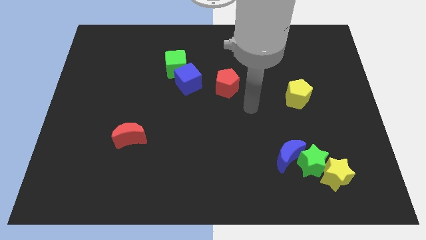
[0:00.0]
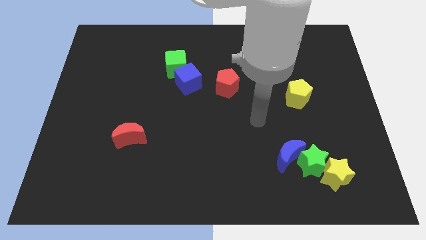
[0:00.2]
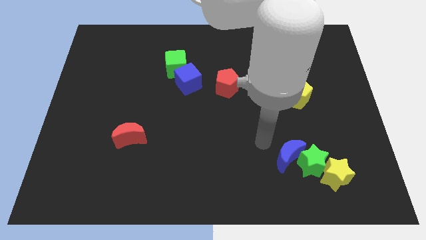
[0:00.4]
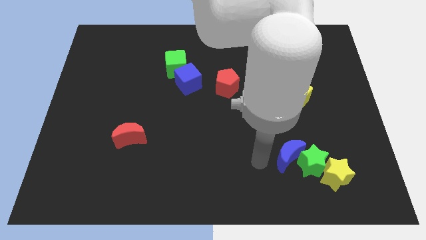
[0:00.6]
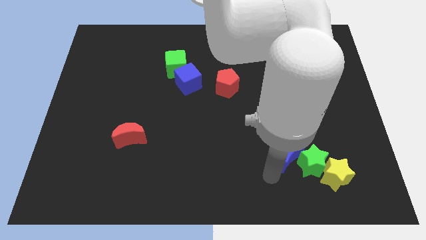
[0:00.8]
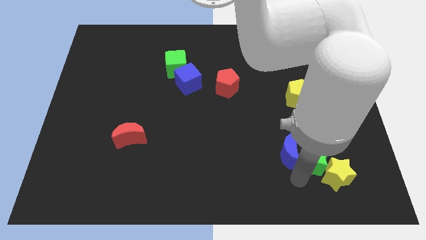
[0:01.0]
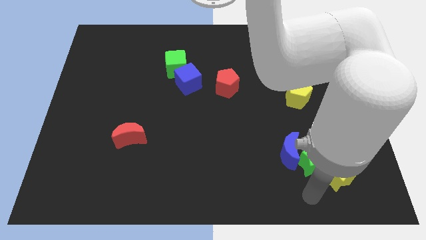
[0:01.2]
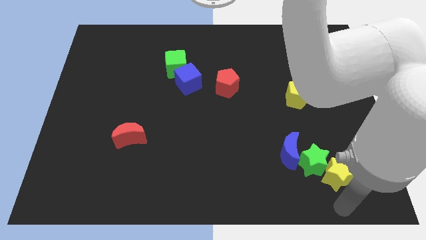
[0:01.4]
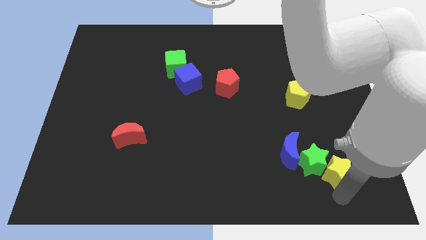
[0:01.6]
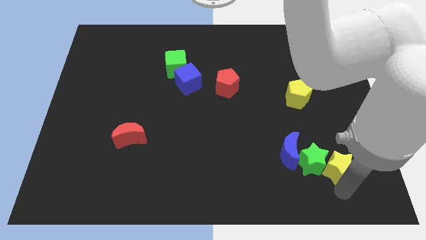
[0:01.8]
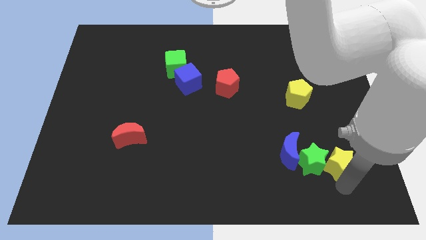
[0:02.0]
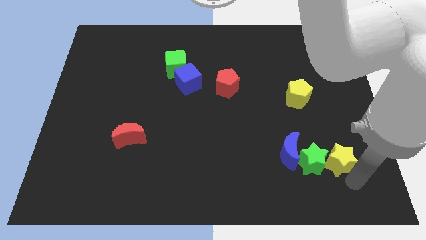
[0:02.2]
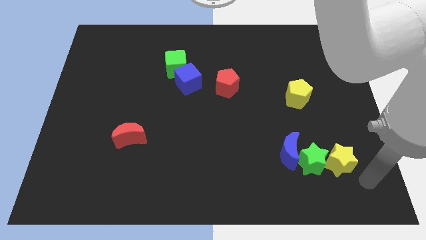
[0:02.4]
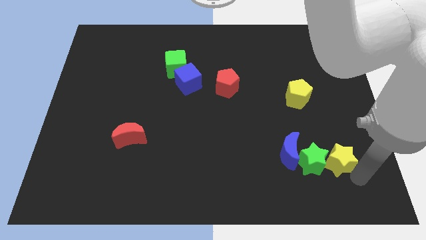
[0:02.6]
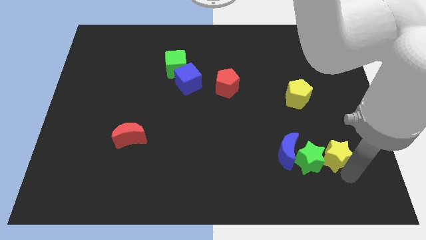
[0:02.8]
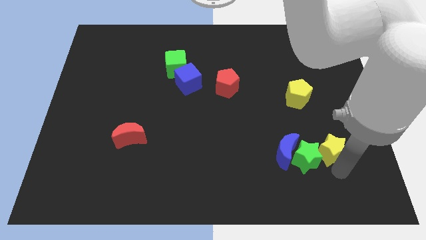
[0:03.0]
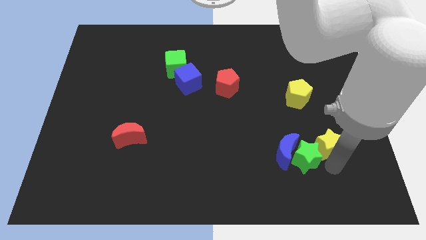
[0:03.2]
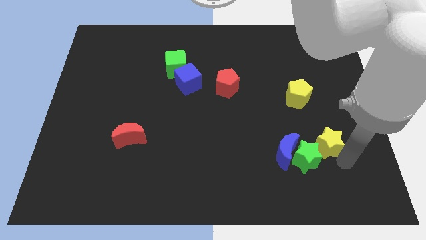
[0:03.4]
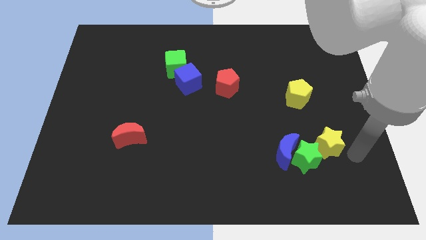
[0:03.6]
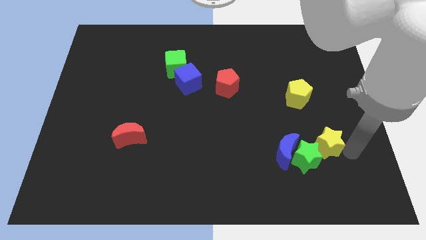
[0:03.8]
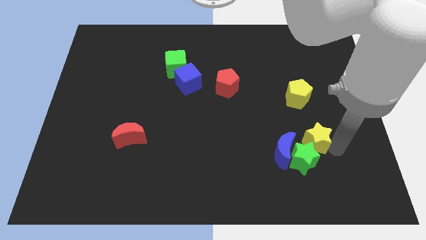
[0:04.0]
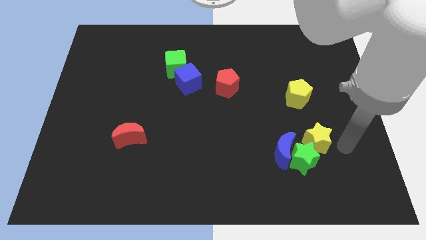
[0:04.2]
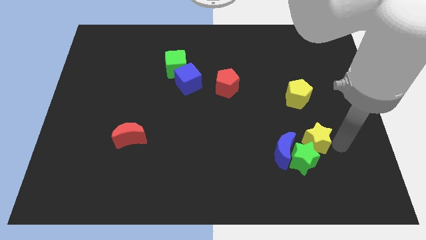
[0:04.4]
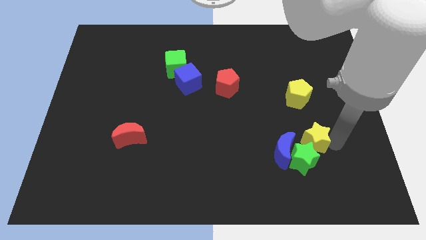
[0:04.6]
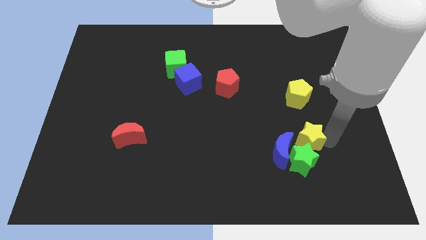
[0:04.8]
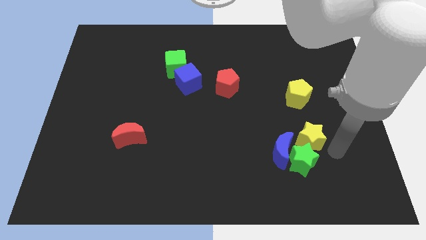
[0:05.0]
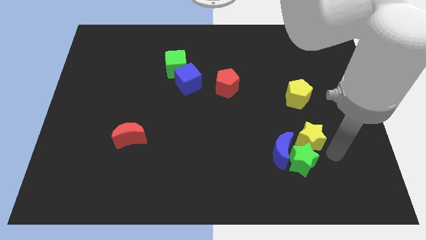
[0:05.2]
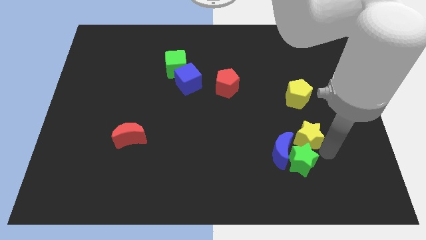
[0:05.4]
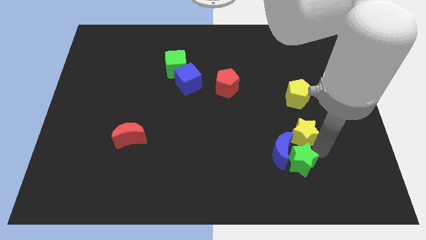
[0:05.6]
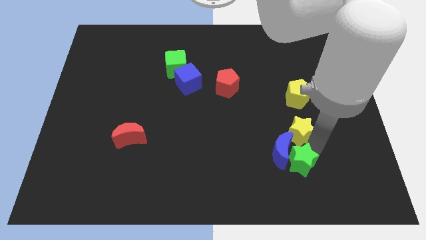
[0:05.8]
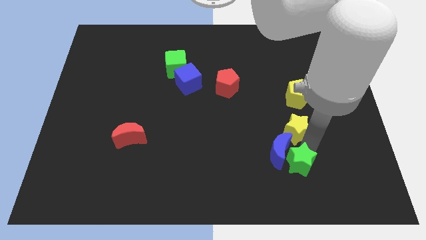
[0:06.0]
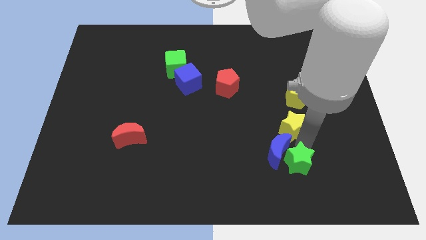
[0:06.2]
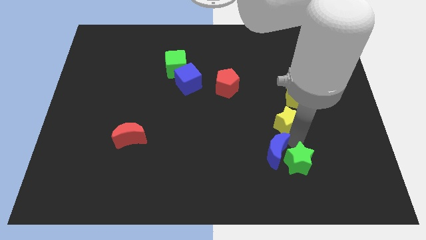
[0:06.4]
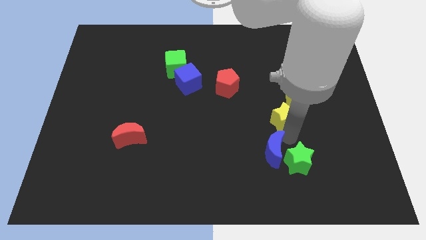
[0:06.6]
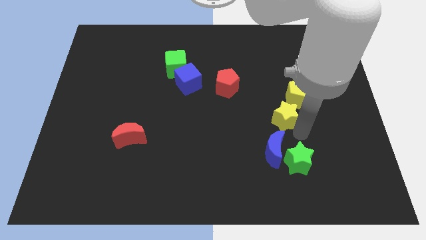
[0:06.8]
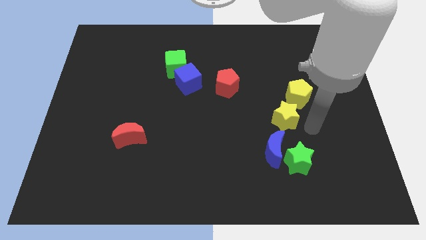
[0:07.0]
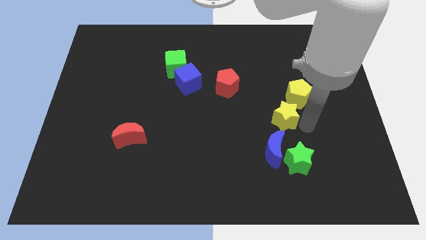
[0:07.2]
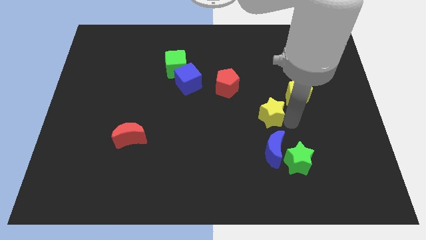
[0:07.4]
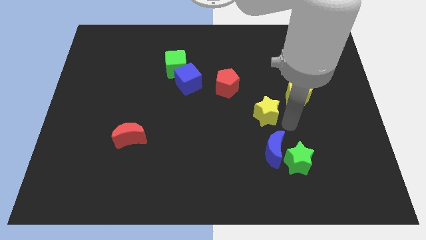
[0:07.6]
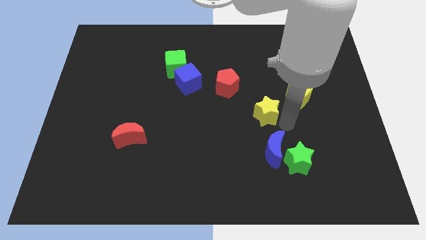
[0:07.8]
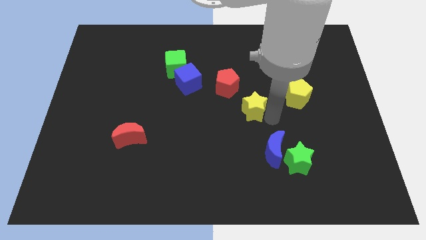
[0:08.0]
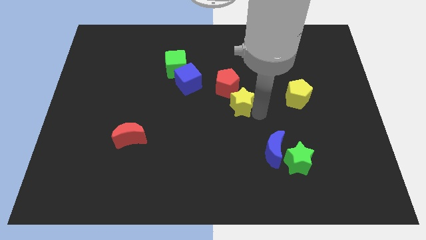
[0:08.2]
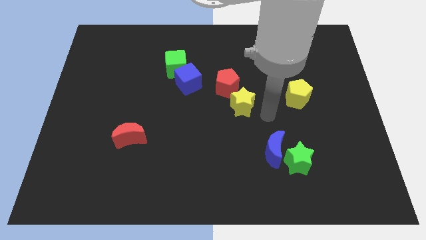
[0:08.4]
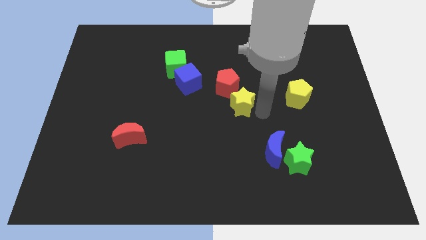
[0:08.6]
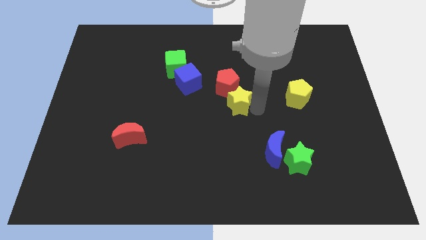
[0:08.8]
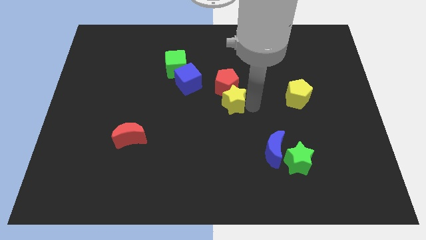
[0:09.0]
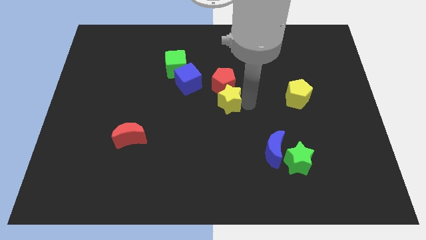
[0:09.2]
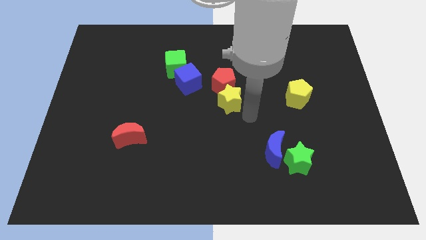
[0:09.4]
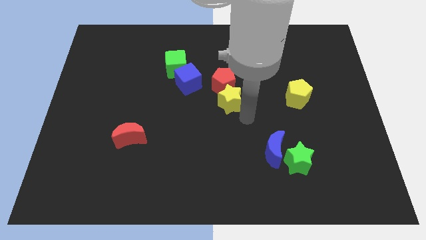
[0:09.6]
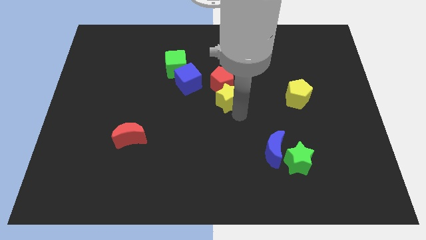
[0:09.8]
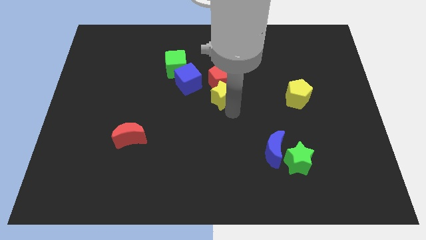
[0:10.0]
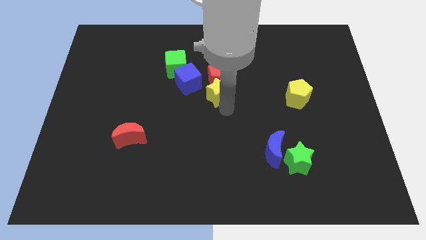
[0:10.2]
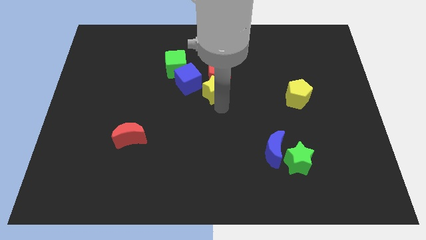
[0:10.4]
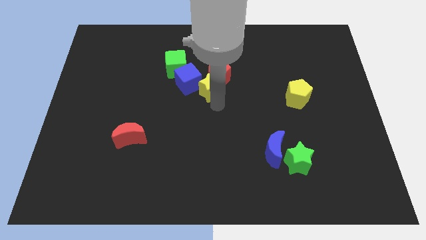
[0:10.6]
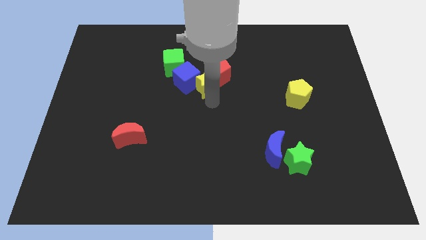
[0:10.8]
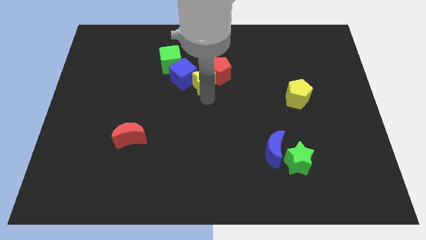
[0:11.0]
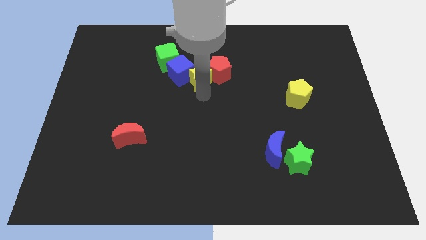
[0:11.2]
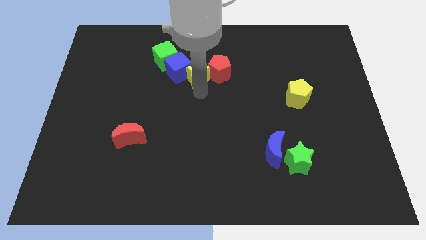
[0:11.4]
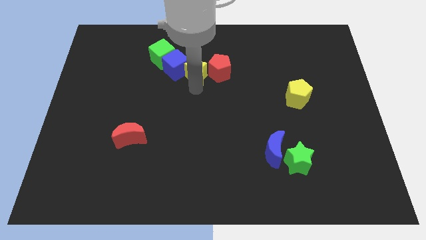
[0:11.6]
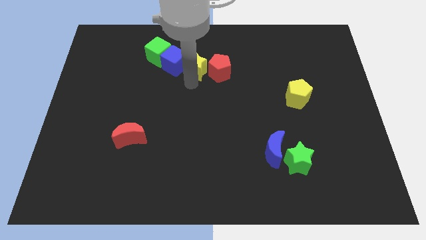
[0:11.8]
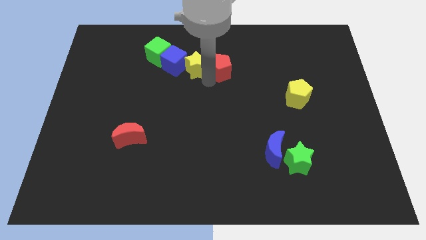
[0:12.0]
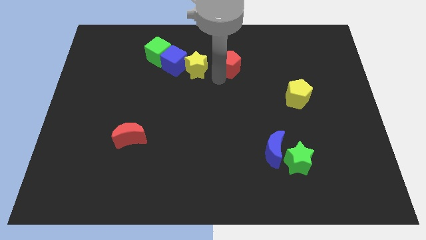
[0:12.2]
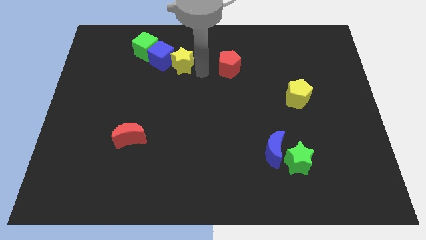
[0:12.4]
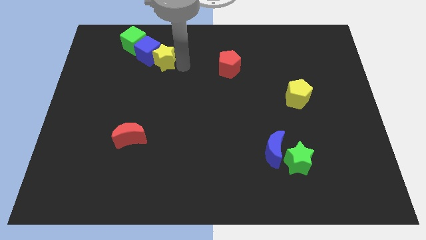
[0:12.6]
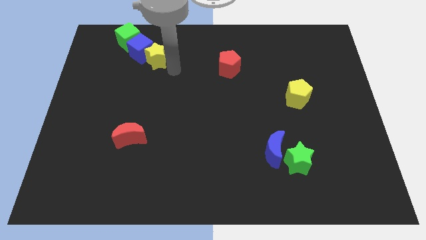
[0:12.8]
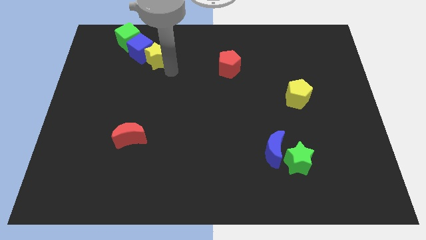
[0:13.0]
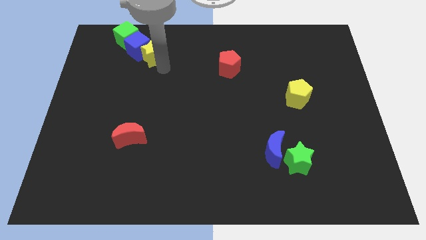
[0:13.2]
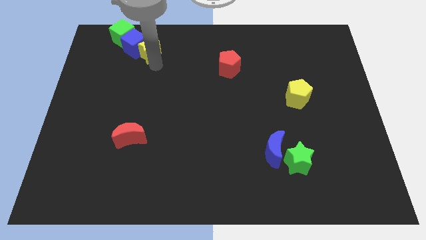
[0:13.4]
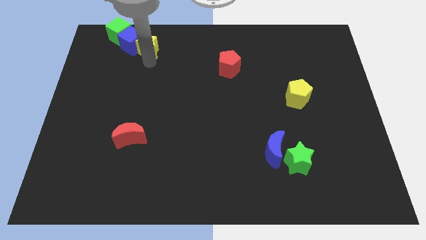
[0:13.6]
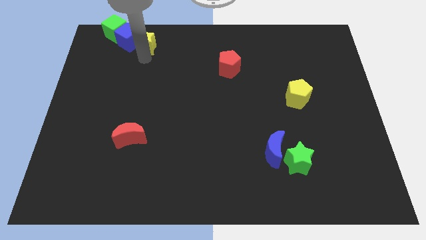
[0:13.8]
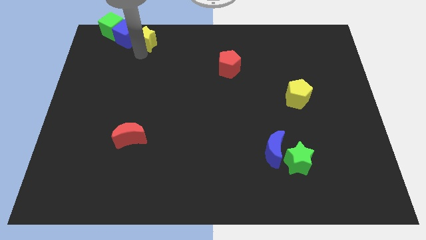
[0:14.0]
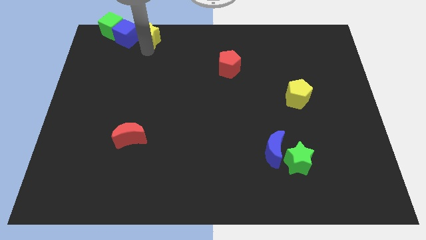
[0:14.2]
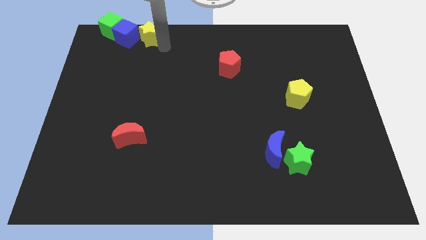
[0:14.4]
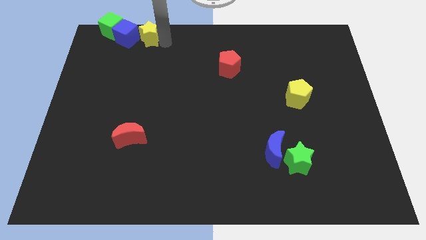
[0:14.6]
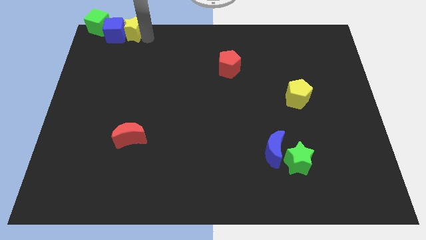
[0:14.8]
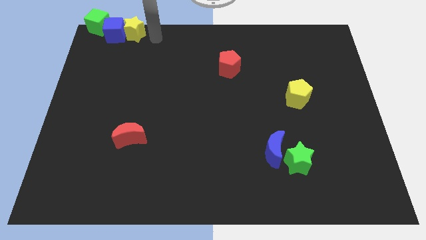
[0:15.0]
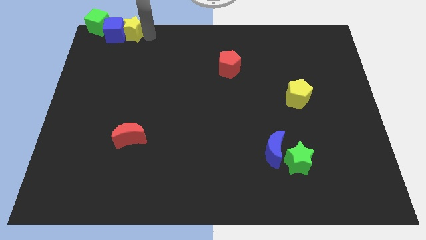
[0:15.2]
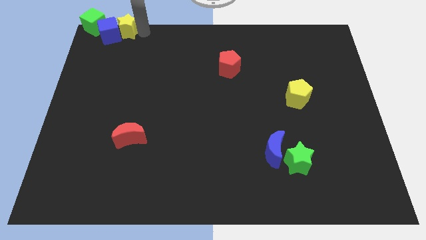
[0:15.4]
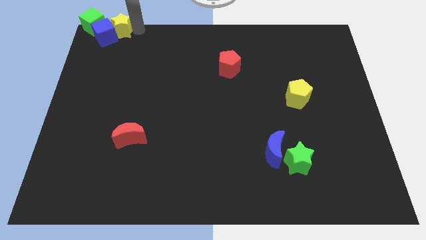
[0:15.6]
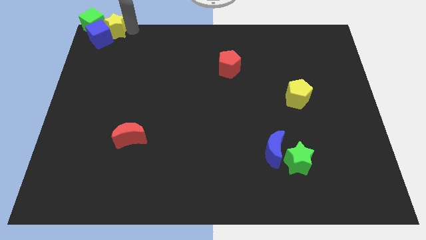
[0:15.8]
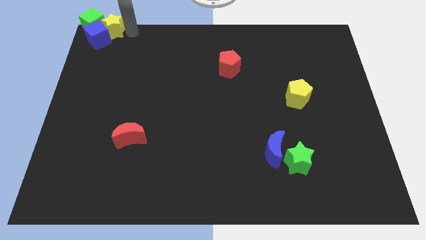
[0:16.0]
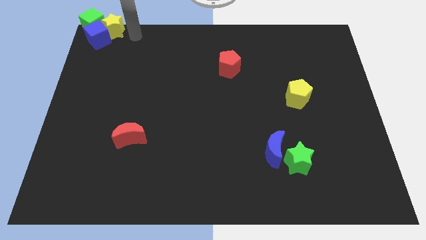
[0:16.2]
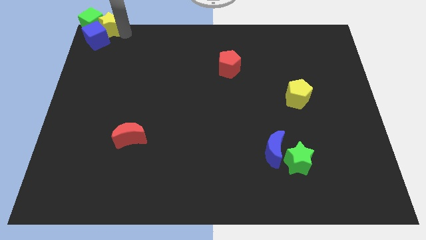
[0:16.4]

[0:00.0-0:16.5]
move the yellow star next to the green cube
